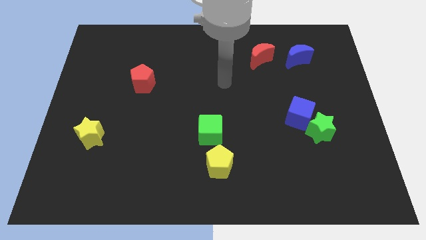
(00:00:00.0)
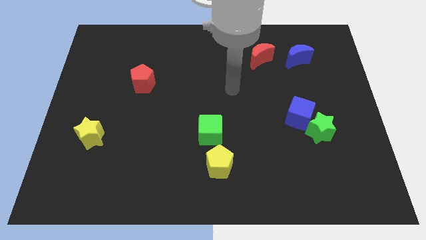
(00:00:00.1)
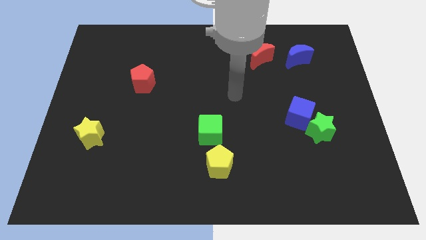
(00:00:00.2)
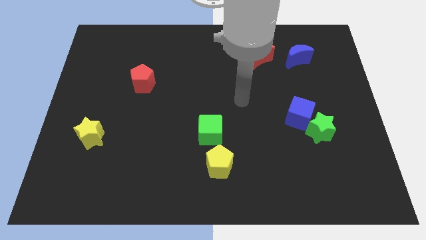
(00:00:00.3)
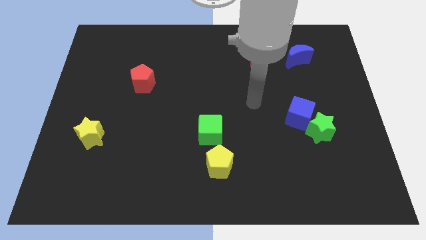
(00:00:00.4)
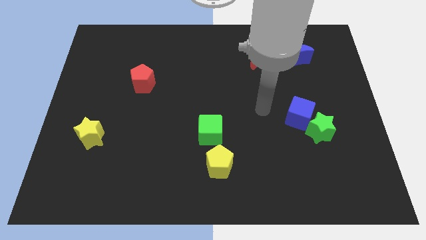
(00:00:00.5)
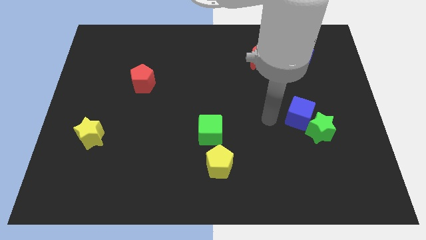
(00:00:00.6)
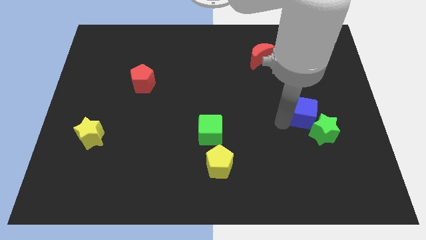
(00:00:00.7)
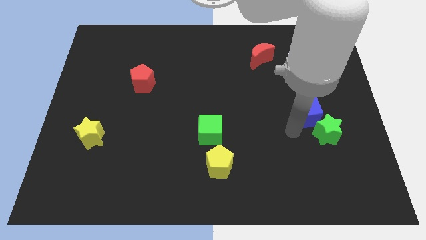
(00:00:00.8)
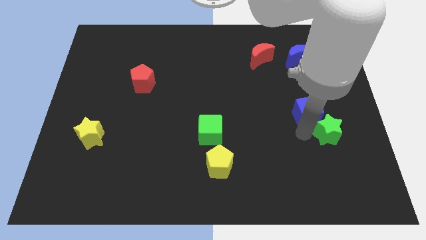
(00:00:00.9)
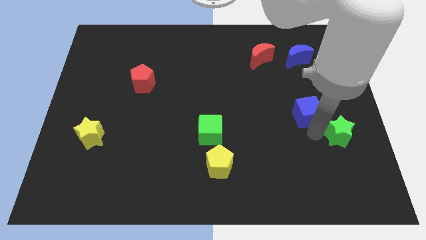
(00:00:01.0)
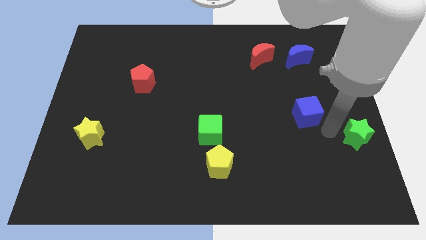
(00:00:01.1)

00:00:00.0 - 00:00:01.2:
separate the blue cube from the green star

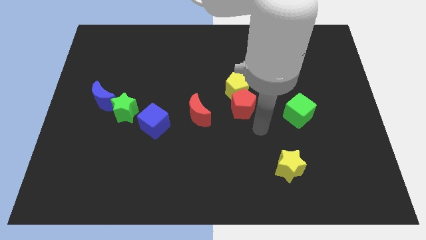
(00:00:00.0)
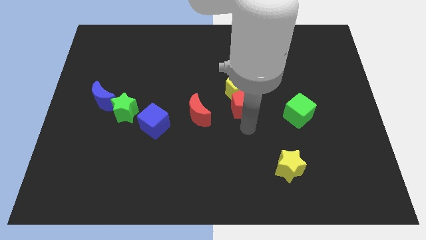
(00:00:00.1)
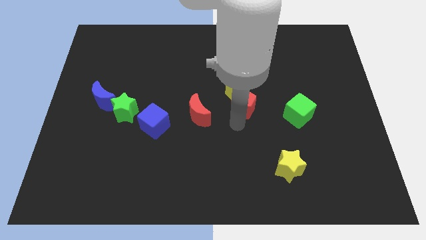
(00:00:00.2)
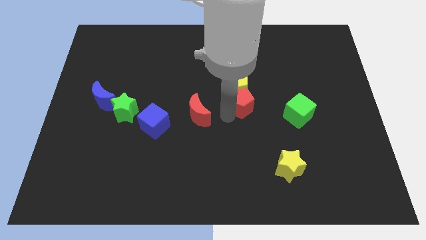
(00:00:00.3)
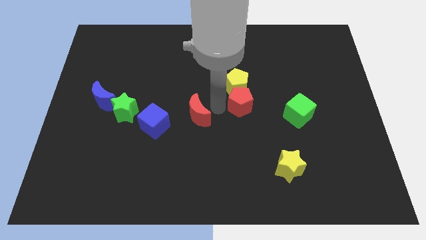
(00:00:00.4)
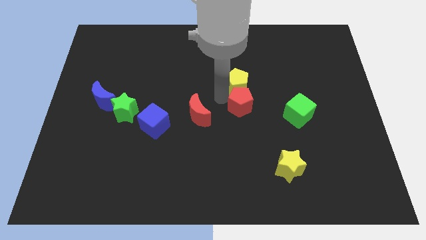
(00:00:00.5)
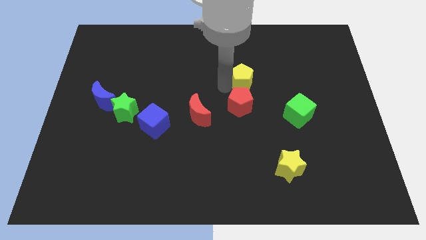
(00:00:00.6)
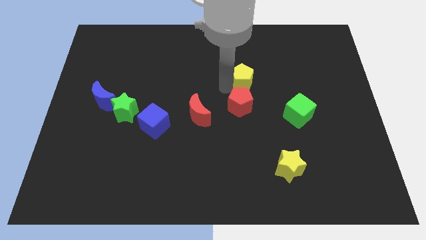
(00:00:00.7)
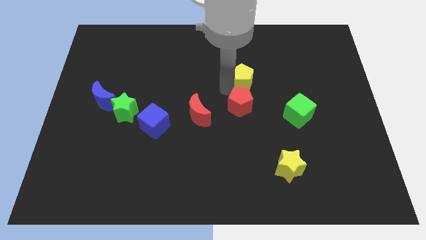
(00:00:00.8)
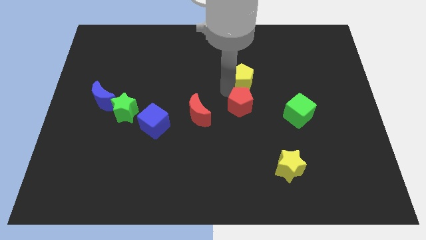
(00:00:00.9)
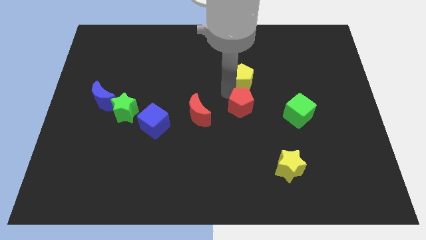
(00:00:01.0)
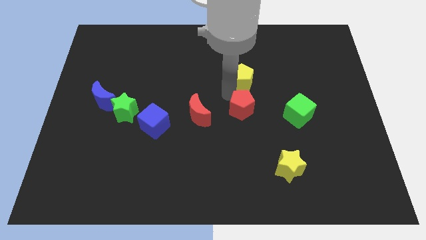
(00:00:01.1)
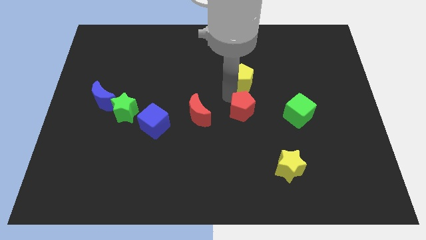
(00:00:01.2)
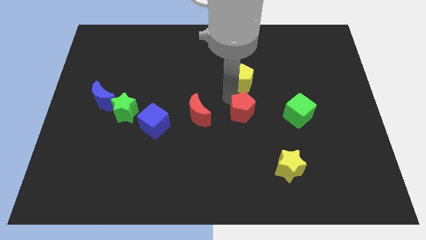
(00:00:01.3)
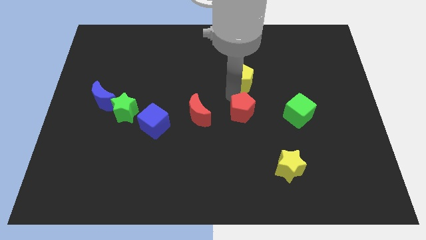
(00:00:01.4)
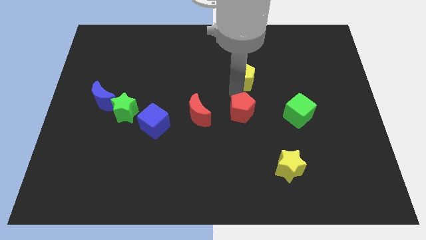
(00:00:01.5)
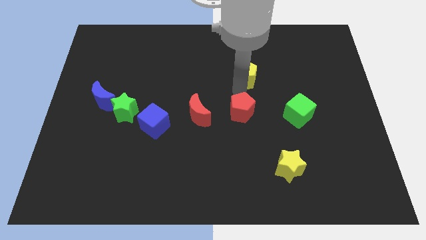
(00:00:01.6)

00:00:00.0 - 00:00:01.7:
move the red pentagon away from the yellow pentagon

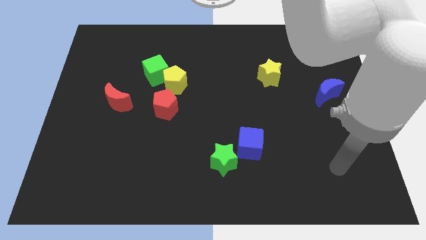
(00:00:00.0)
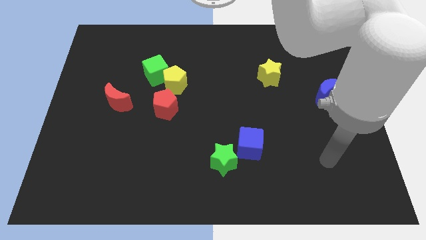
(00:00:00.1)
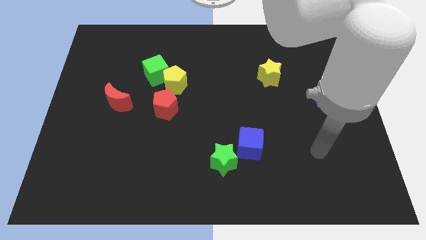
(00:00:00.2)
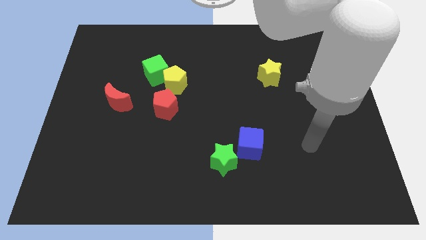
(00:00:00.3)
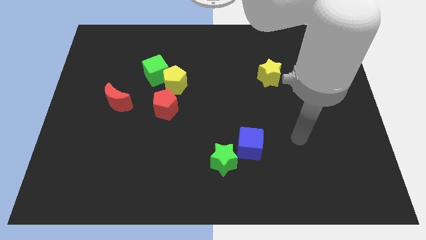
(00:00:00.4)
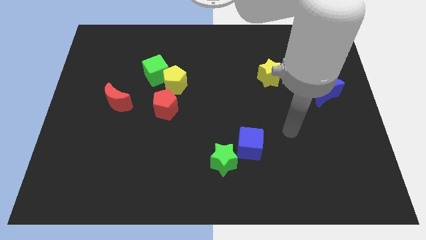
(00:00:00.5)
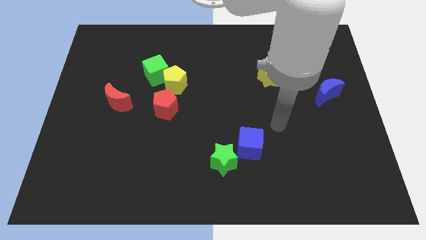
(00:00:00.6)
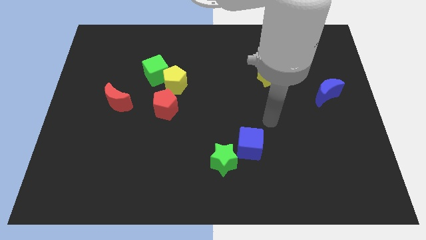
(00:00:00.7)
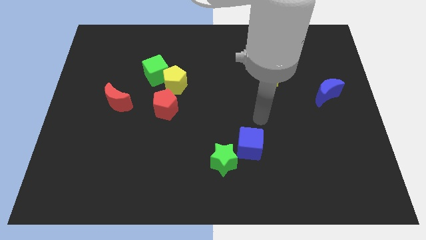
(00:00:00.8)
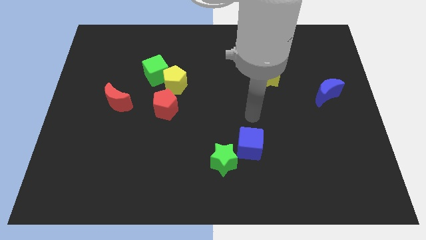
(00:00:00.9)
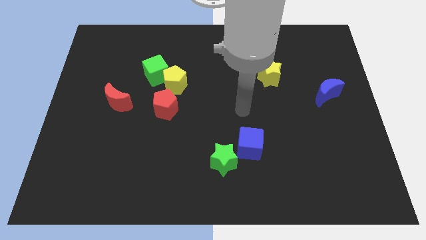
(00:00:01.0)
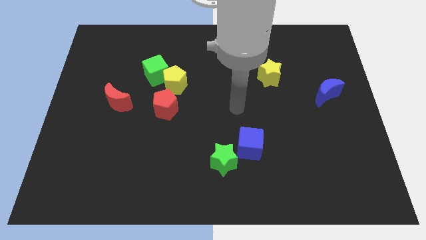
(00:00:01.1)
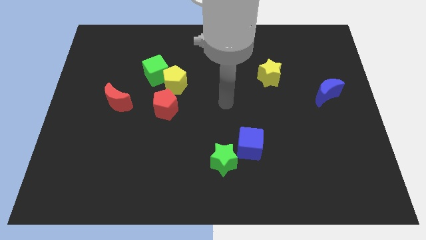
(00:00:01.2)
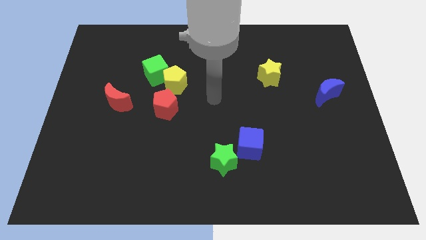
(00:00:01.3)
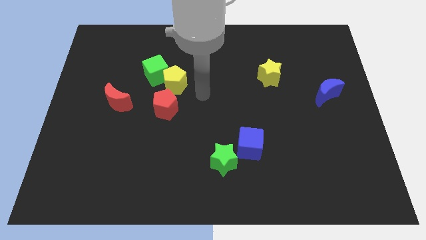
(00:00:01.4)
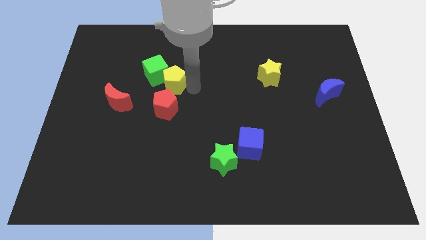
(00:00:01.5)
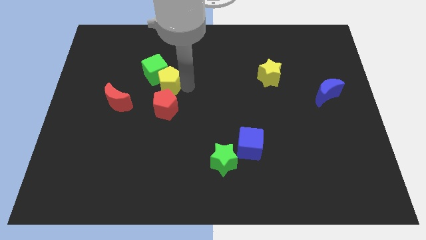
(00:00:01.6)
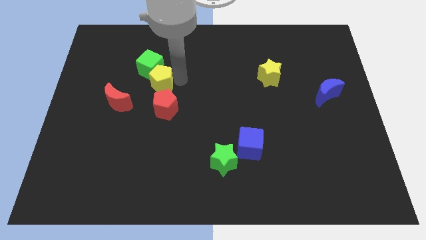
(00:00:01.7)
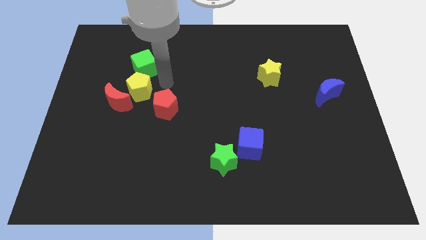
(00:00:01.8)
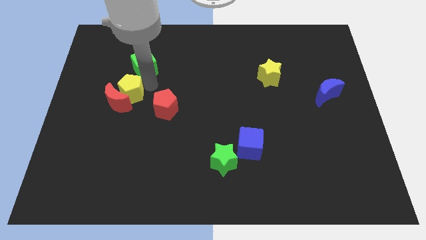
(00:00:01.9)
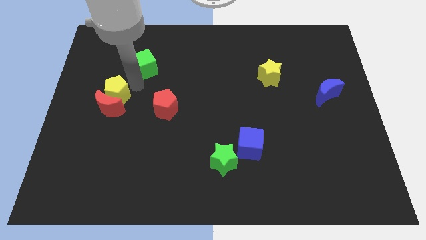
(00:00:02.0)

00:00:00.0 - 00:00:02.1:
separate the green cube from the yellow pentagon

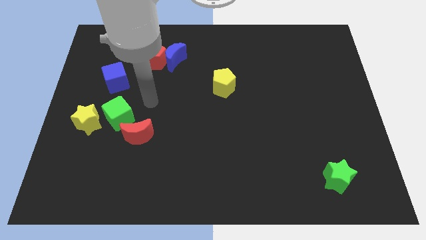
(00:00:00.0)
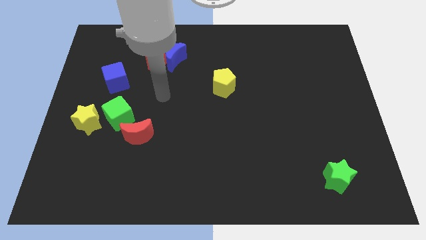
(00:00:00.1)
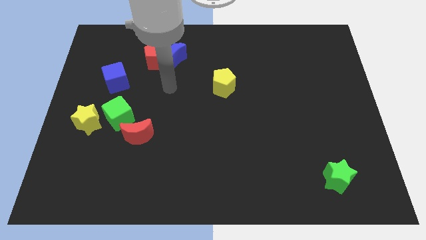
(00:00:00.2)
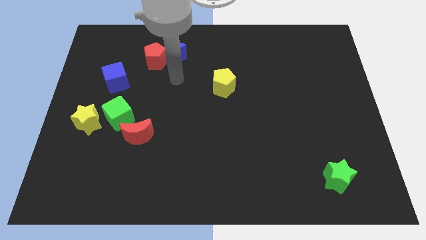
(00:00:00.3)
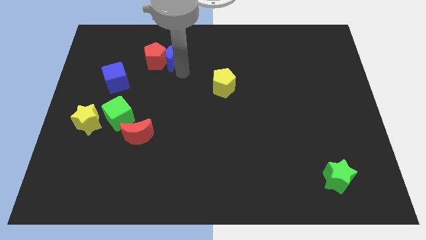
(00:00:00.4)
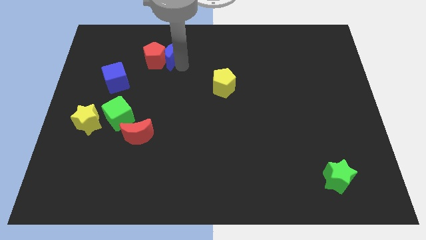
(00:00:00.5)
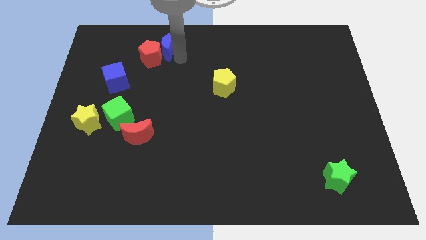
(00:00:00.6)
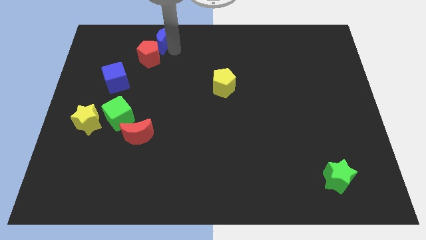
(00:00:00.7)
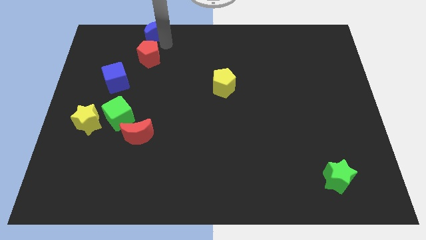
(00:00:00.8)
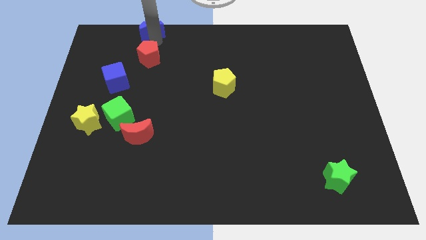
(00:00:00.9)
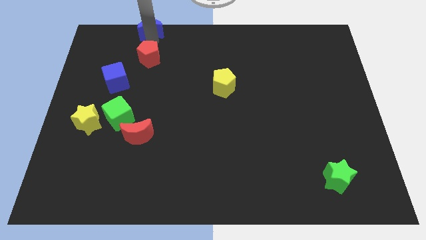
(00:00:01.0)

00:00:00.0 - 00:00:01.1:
pull the red pentagon apart from the blue moon

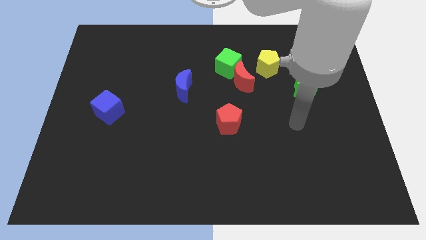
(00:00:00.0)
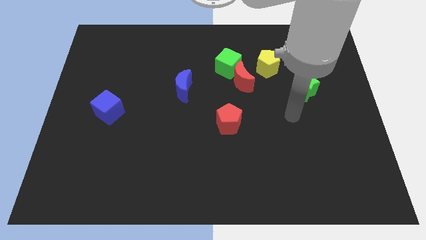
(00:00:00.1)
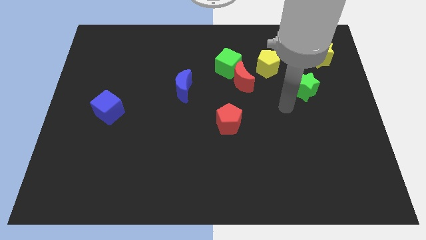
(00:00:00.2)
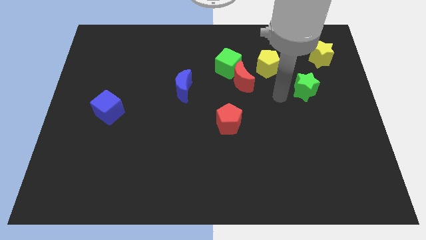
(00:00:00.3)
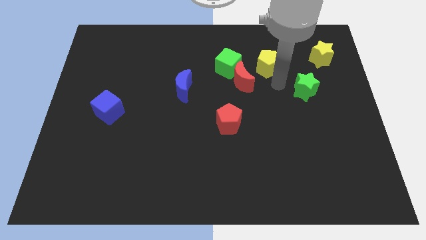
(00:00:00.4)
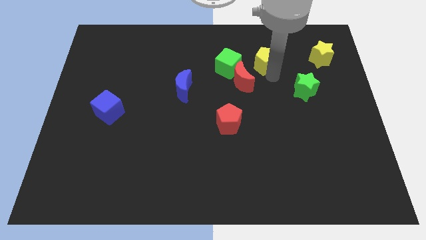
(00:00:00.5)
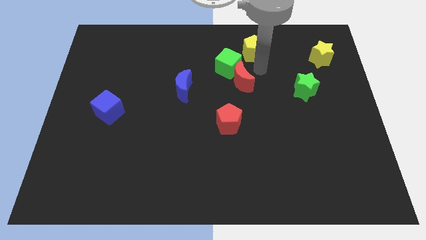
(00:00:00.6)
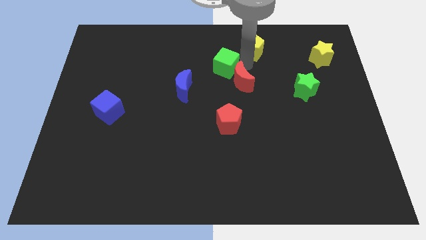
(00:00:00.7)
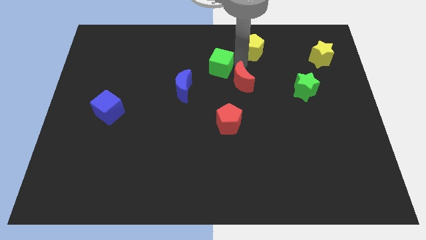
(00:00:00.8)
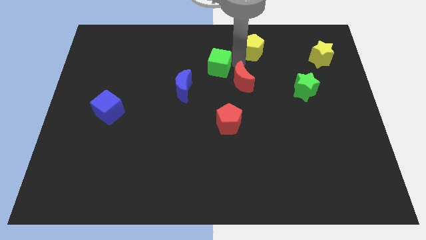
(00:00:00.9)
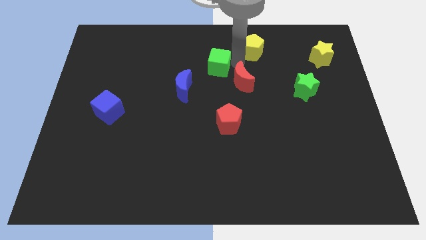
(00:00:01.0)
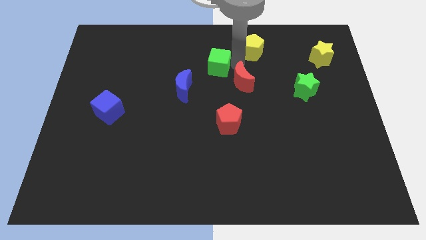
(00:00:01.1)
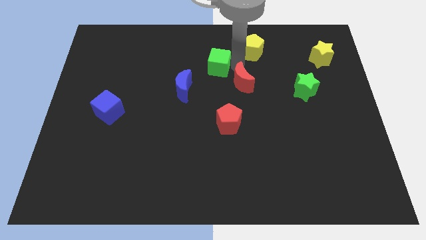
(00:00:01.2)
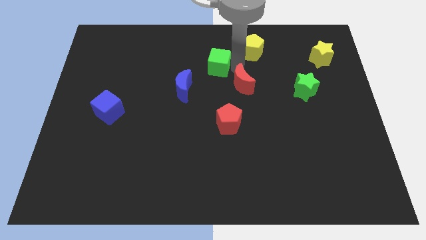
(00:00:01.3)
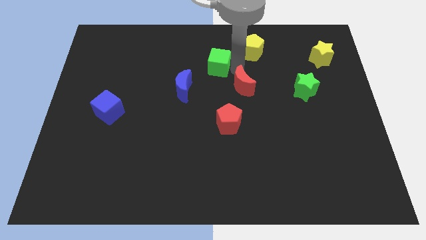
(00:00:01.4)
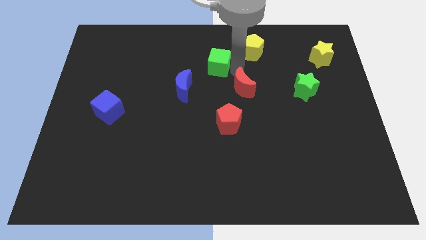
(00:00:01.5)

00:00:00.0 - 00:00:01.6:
pull the red moon apart from the green cube and yellow pentagon

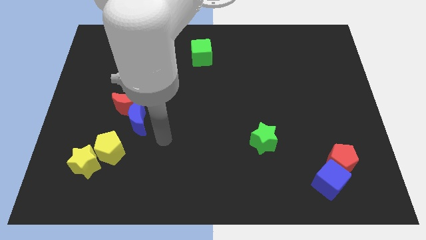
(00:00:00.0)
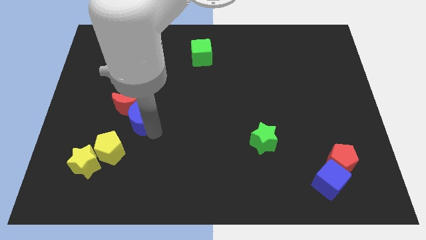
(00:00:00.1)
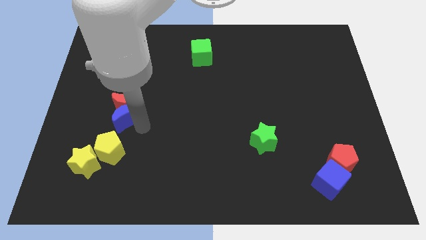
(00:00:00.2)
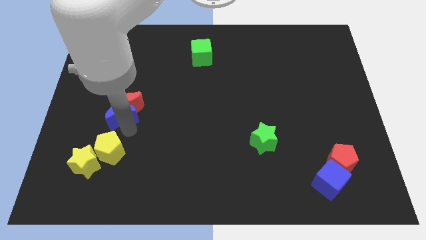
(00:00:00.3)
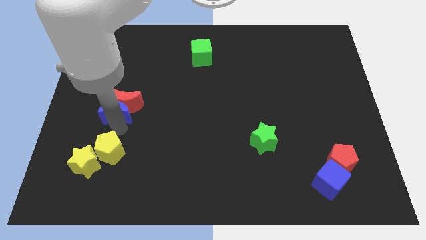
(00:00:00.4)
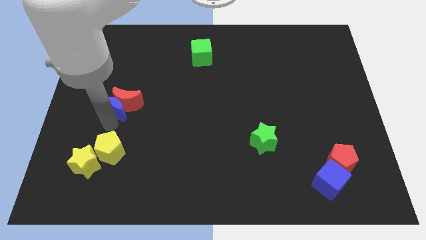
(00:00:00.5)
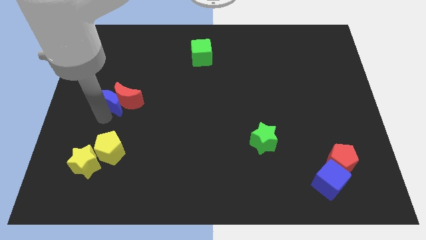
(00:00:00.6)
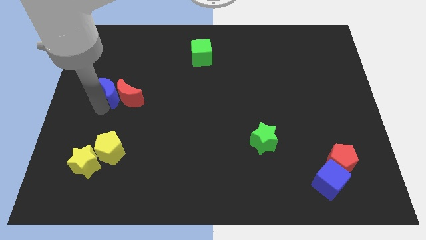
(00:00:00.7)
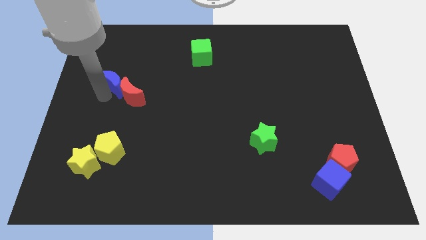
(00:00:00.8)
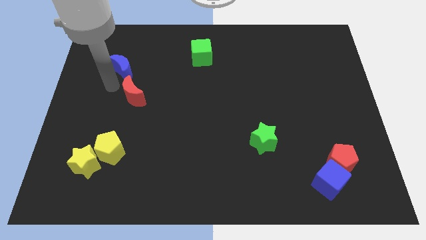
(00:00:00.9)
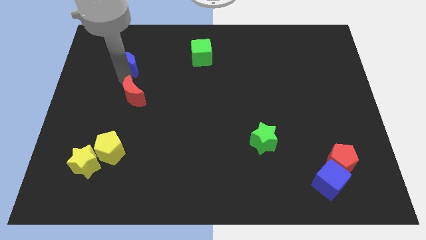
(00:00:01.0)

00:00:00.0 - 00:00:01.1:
separate the red moon from the blue moon

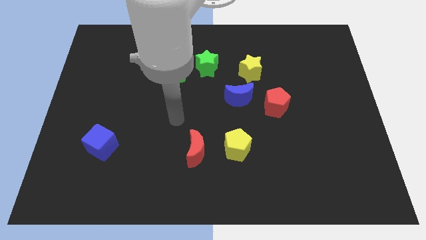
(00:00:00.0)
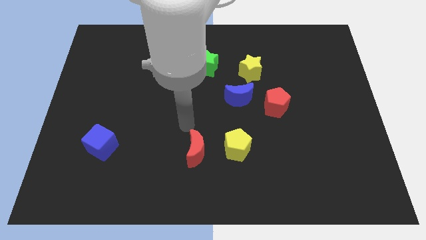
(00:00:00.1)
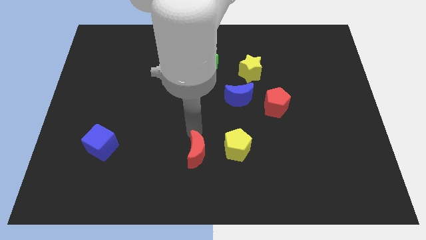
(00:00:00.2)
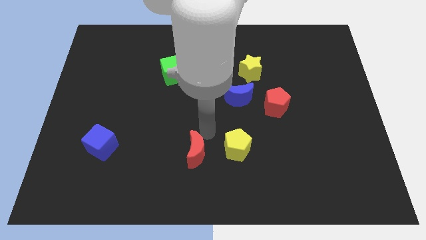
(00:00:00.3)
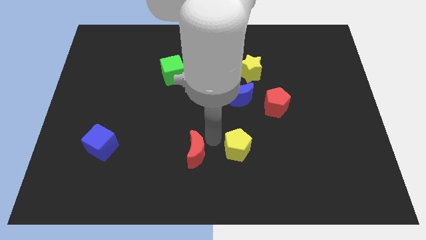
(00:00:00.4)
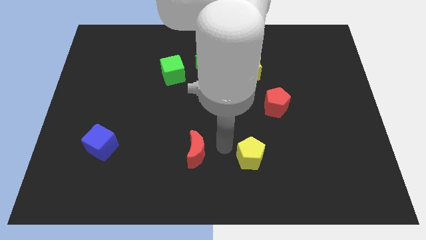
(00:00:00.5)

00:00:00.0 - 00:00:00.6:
separate the red moon from the yellow pentagon
